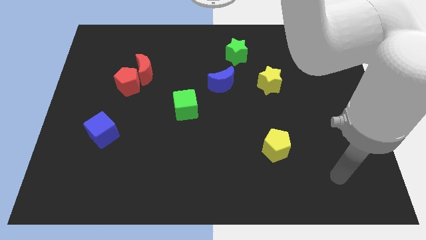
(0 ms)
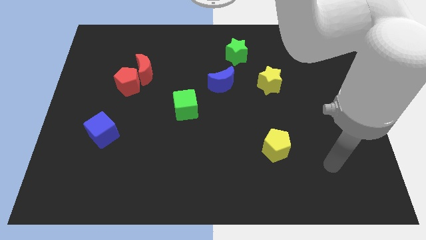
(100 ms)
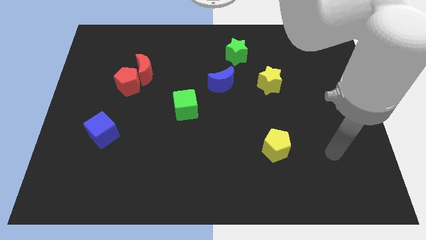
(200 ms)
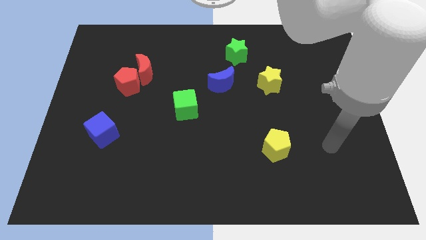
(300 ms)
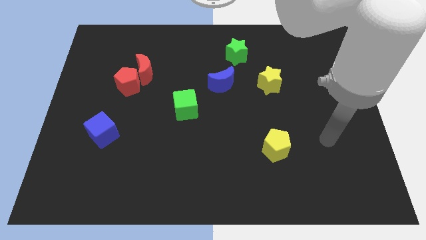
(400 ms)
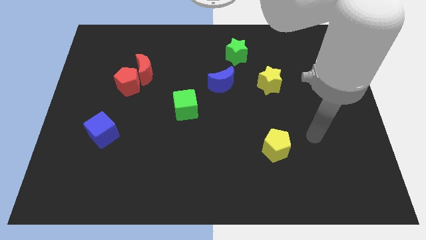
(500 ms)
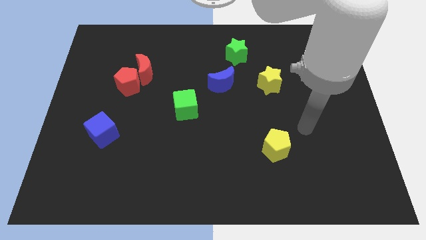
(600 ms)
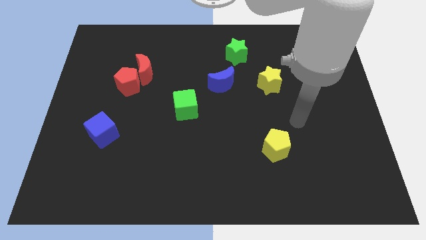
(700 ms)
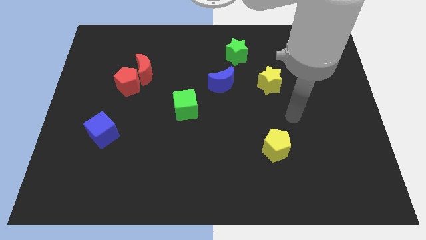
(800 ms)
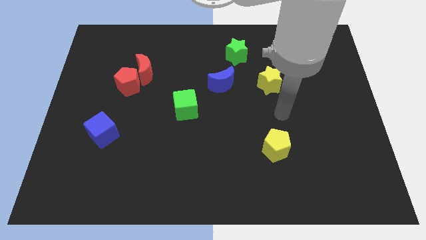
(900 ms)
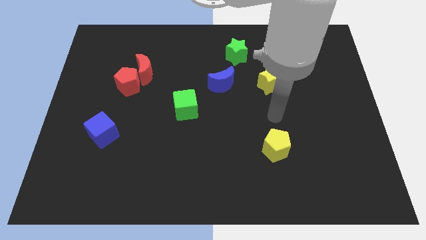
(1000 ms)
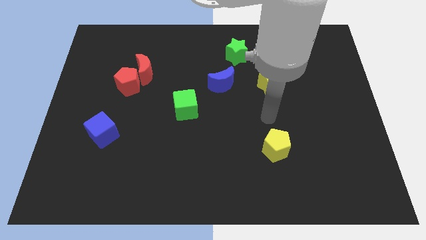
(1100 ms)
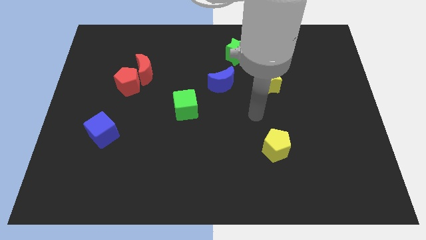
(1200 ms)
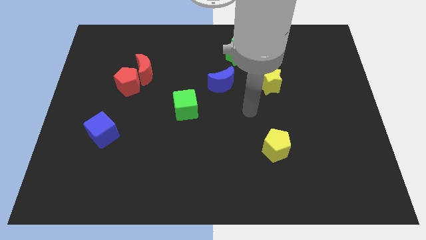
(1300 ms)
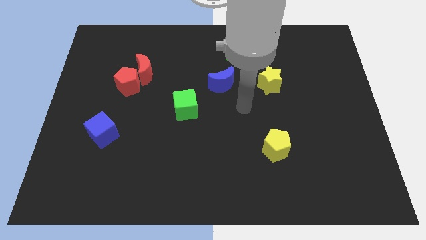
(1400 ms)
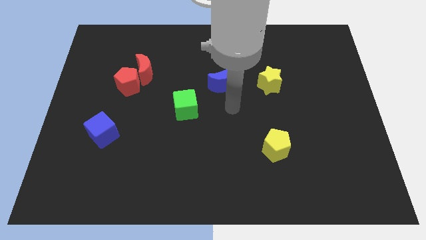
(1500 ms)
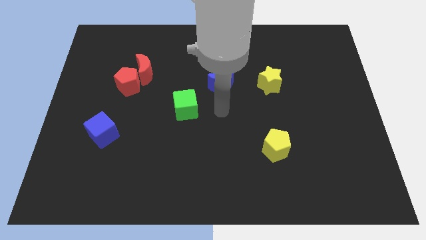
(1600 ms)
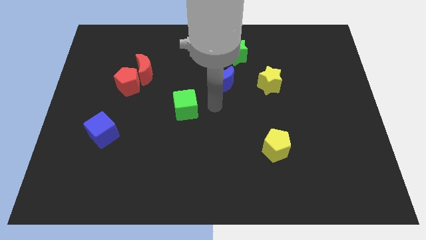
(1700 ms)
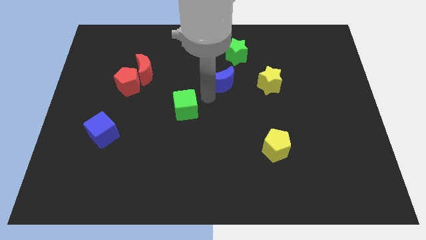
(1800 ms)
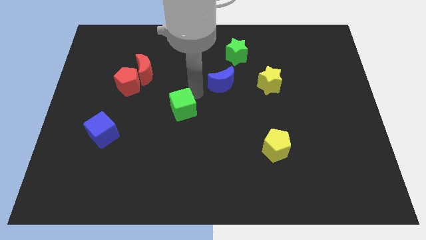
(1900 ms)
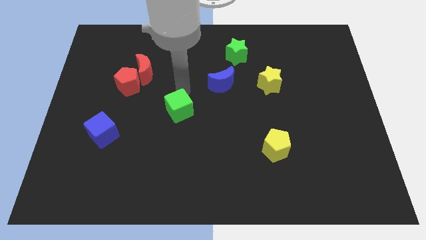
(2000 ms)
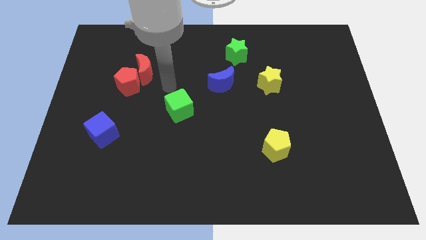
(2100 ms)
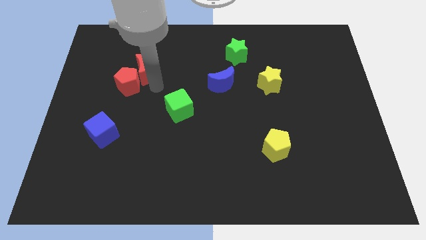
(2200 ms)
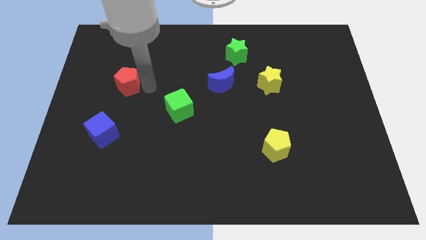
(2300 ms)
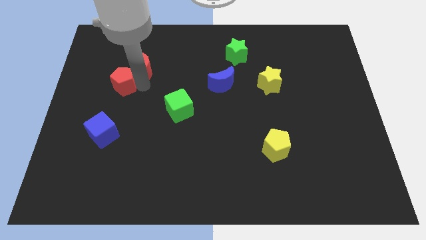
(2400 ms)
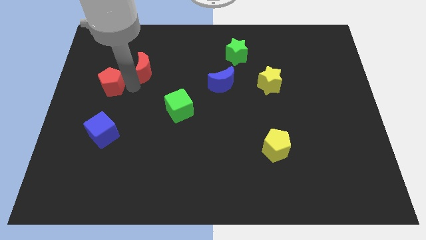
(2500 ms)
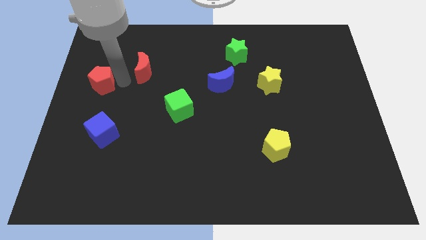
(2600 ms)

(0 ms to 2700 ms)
separate the red moon from the red pentagon

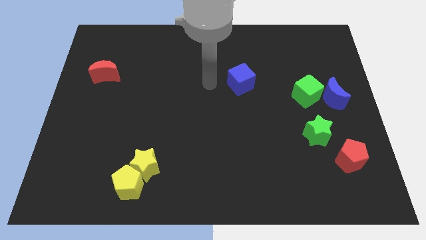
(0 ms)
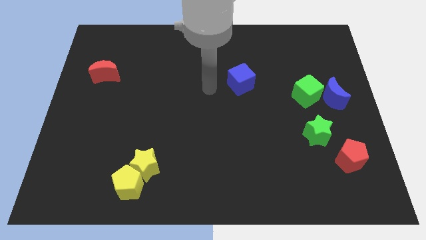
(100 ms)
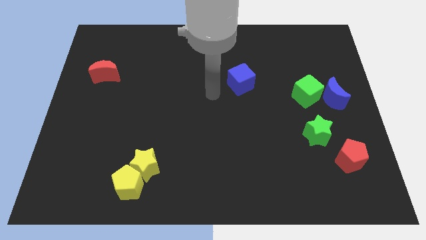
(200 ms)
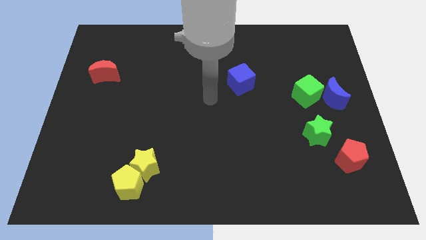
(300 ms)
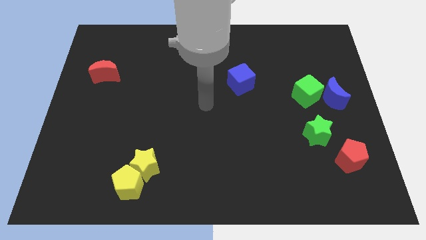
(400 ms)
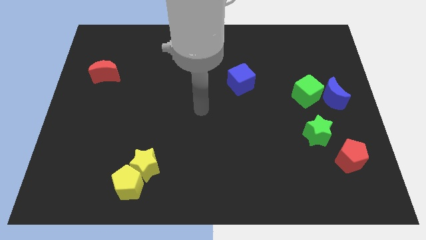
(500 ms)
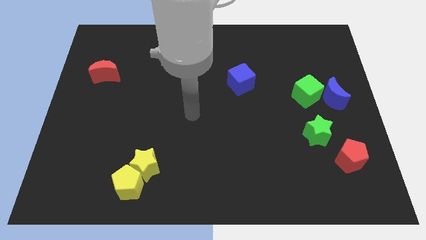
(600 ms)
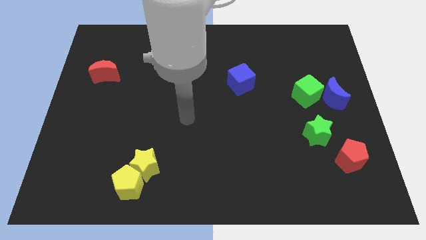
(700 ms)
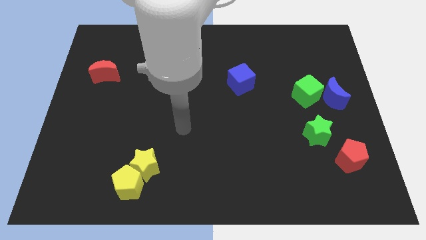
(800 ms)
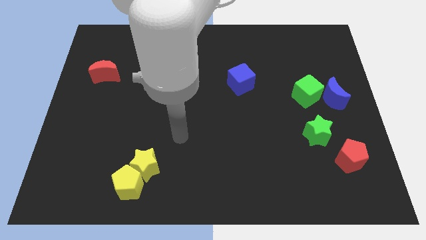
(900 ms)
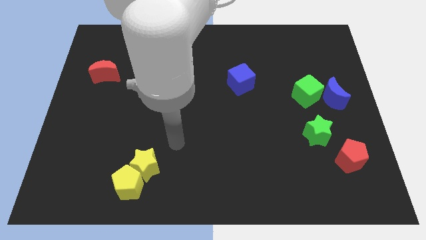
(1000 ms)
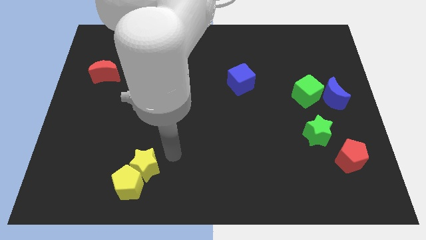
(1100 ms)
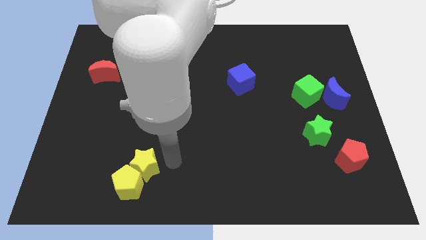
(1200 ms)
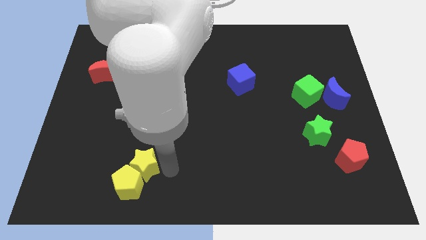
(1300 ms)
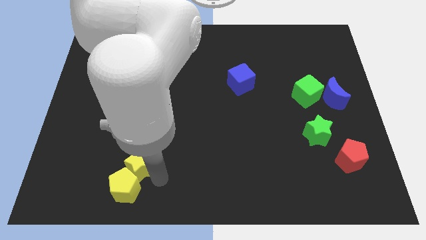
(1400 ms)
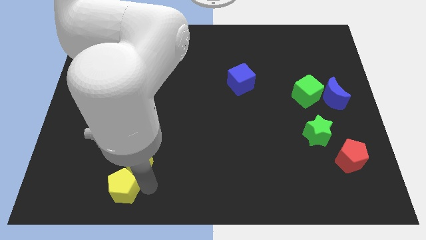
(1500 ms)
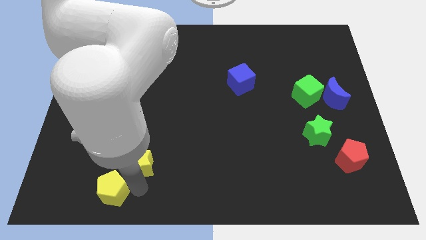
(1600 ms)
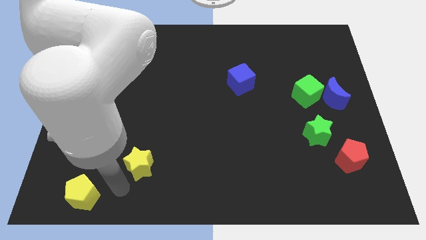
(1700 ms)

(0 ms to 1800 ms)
move the yellow star away from the yellow pentagon

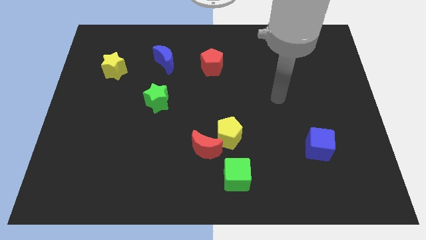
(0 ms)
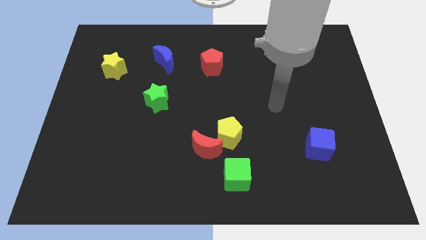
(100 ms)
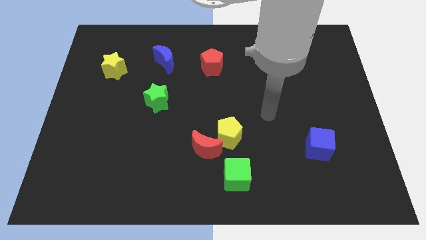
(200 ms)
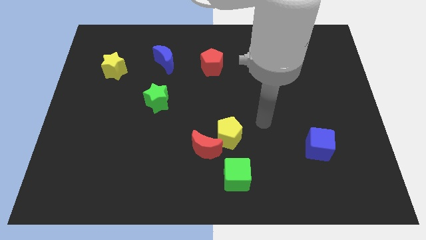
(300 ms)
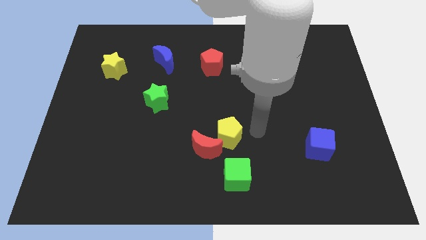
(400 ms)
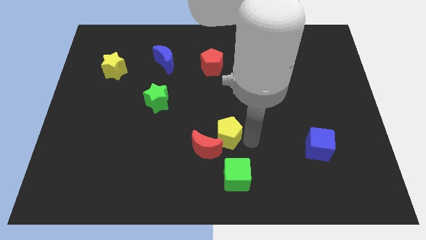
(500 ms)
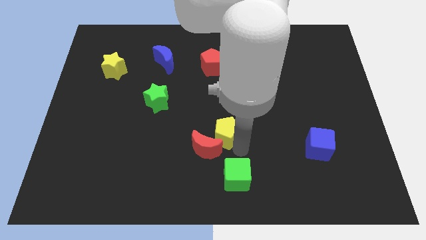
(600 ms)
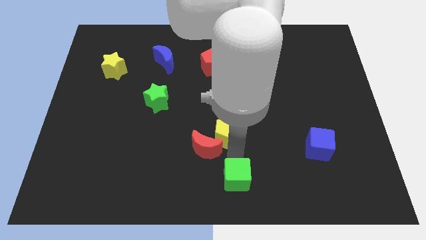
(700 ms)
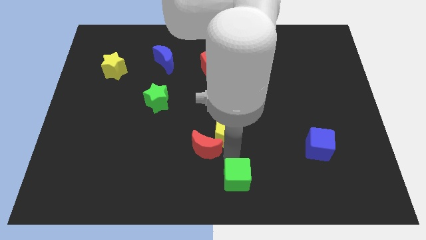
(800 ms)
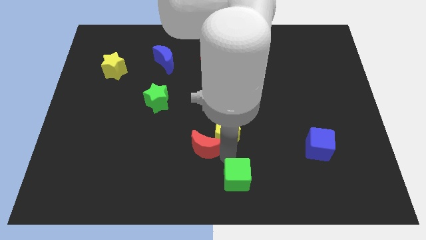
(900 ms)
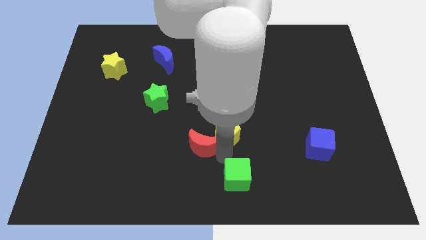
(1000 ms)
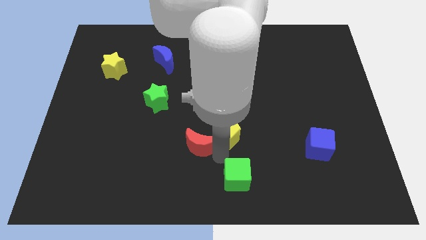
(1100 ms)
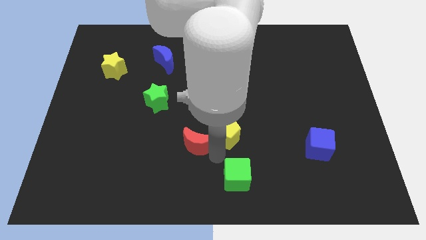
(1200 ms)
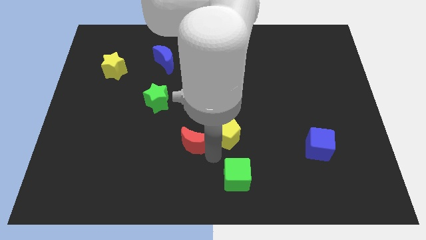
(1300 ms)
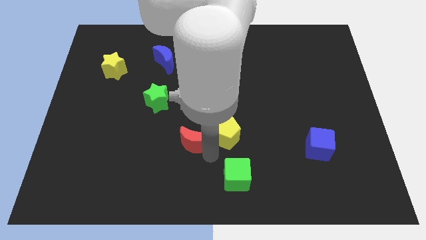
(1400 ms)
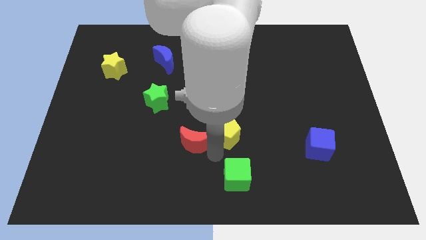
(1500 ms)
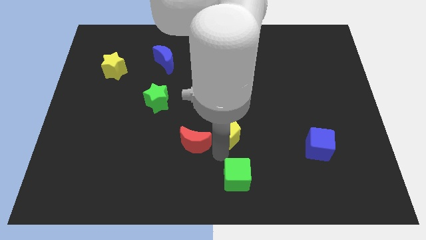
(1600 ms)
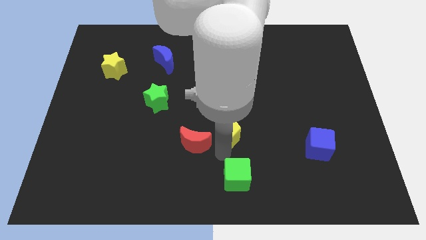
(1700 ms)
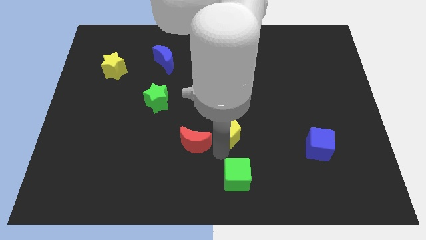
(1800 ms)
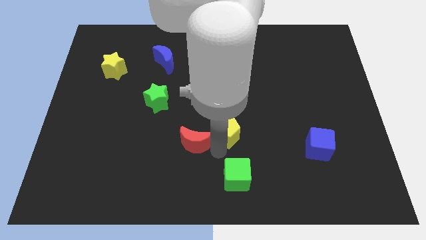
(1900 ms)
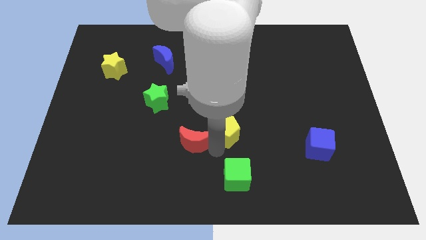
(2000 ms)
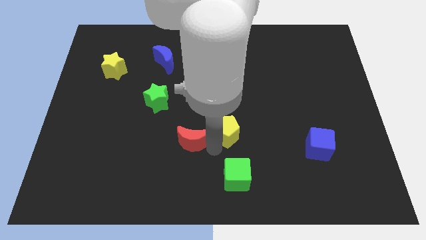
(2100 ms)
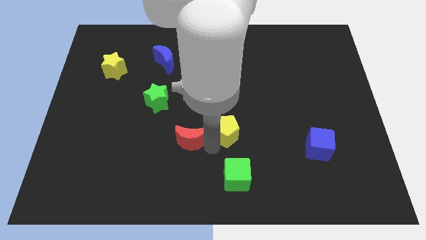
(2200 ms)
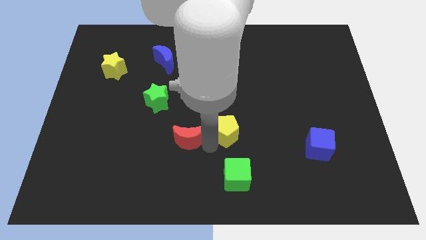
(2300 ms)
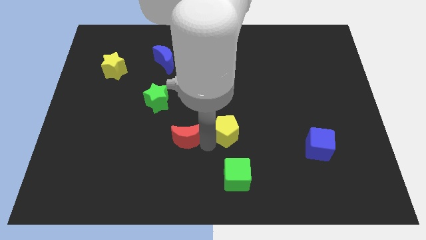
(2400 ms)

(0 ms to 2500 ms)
pull the red moon apart from the yellow pentagon and green cube

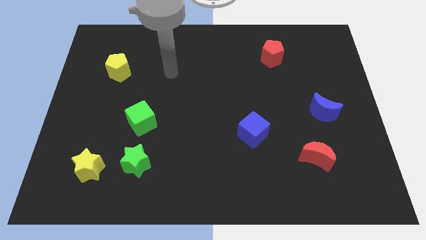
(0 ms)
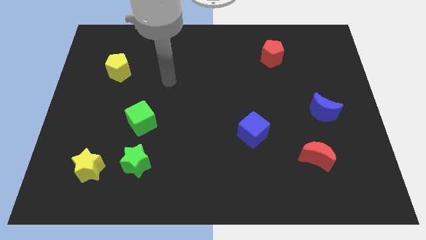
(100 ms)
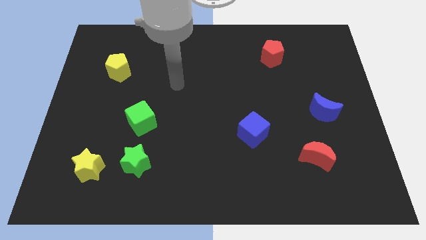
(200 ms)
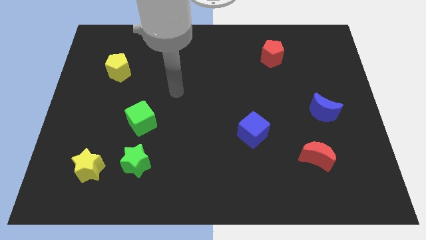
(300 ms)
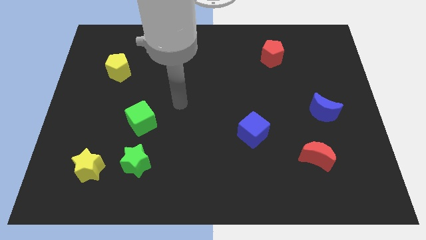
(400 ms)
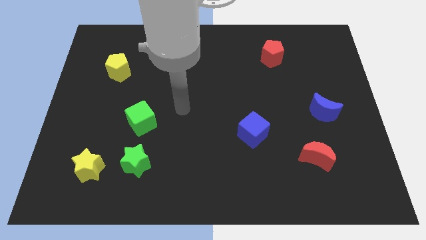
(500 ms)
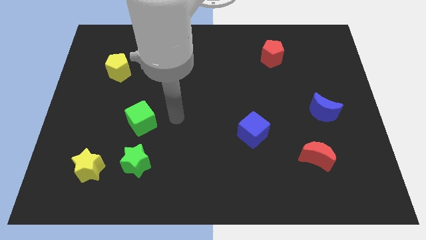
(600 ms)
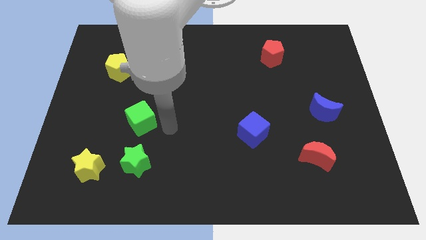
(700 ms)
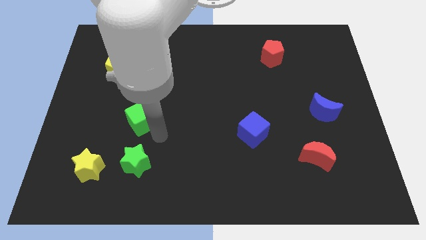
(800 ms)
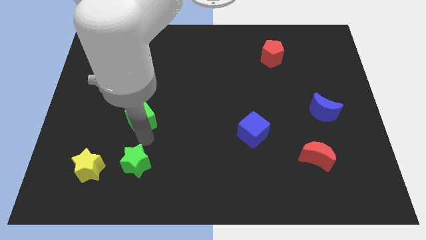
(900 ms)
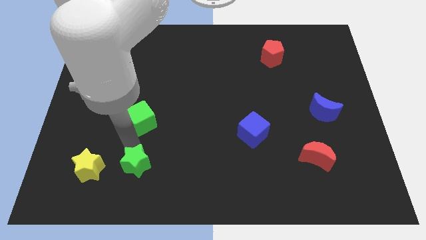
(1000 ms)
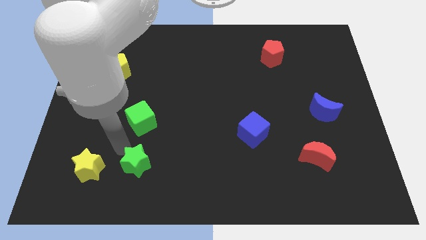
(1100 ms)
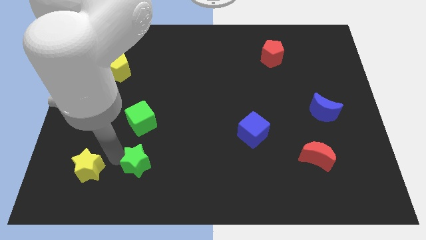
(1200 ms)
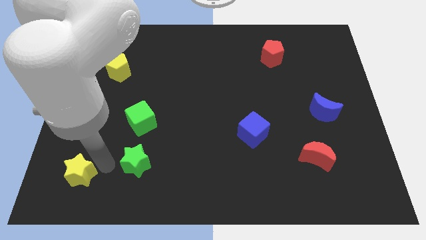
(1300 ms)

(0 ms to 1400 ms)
pull the green star apart from the yellow star

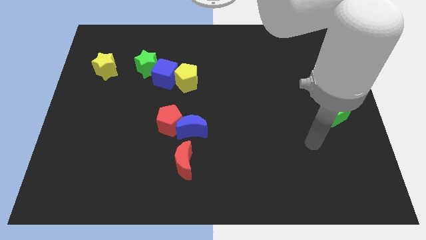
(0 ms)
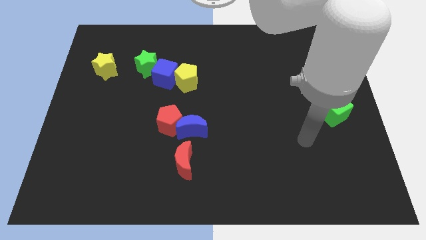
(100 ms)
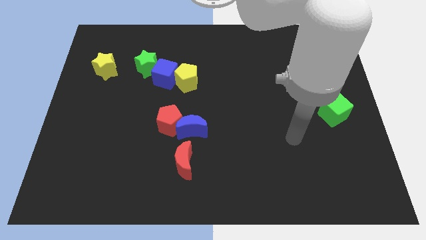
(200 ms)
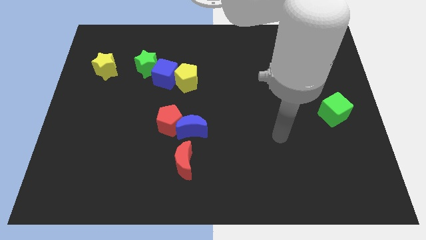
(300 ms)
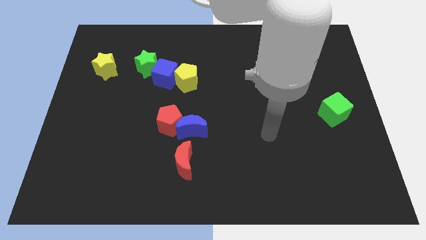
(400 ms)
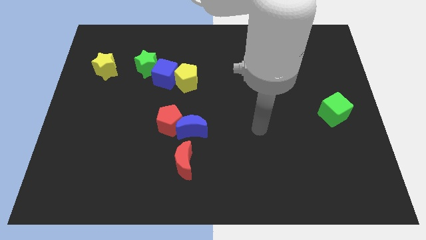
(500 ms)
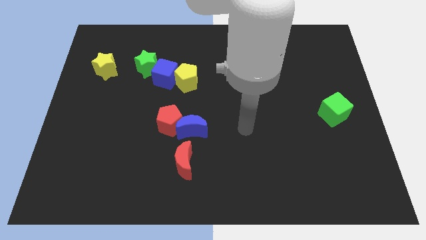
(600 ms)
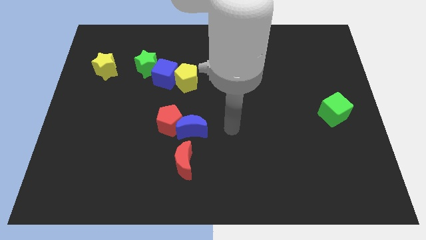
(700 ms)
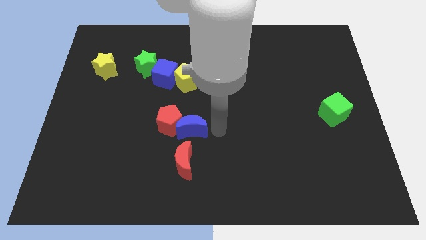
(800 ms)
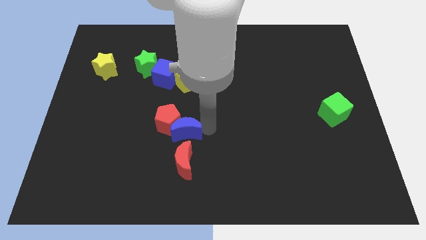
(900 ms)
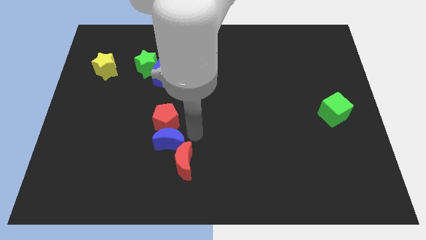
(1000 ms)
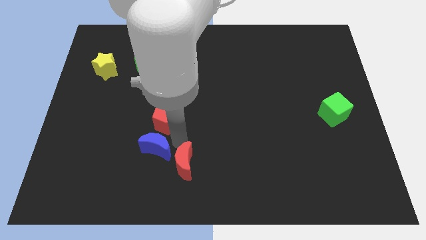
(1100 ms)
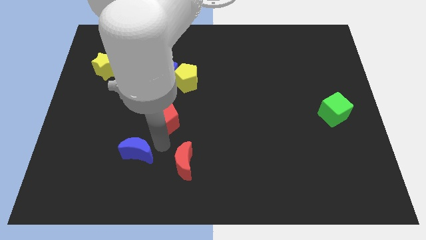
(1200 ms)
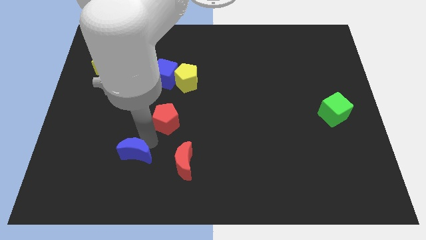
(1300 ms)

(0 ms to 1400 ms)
pull the red pentagon apart from the blue moon
